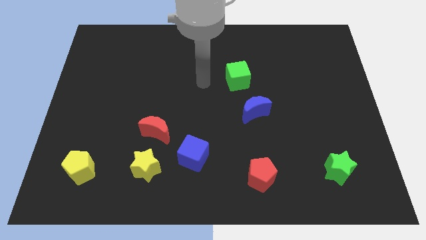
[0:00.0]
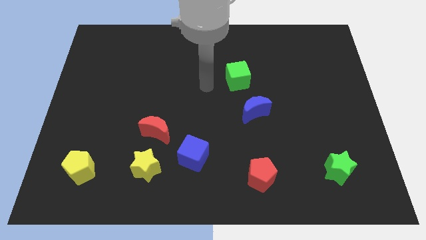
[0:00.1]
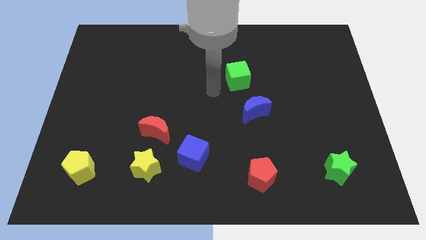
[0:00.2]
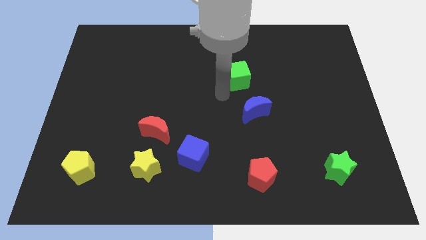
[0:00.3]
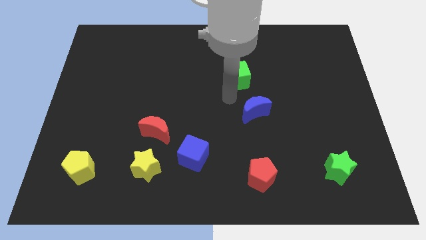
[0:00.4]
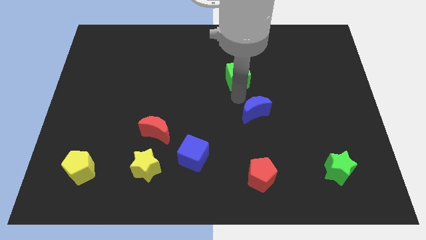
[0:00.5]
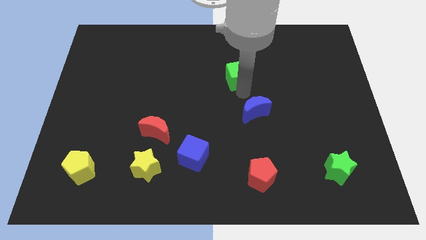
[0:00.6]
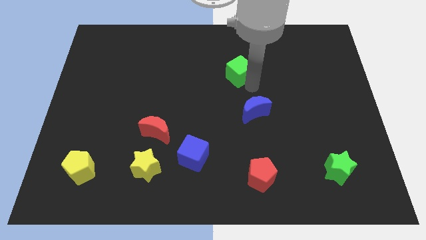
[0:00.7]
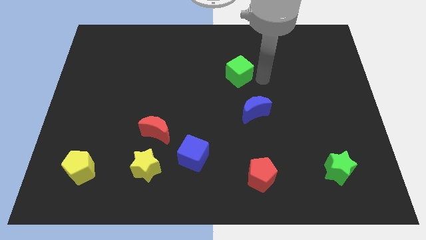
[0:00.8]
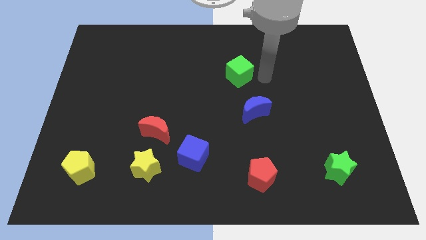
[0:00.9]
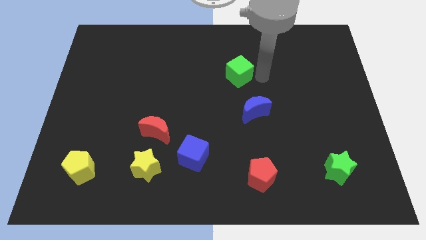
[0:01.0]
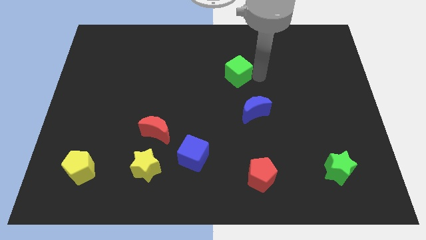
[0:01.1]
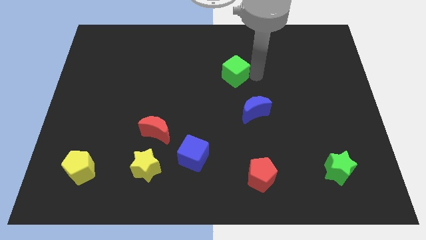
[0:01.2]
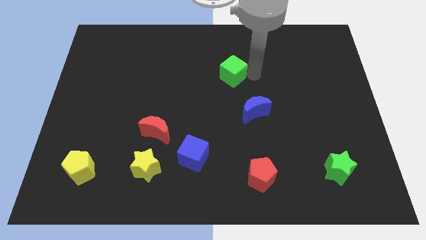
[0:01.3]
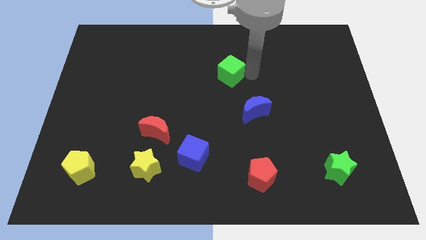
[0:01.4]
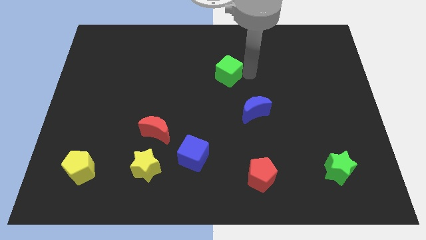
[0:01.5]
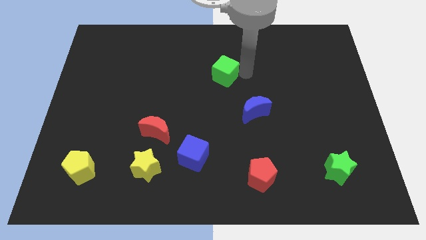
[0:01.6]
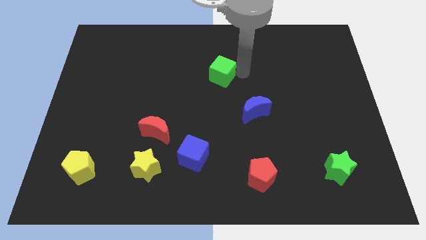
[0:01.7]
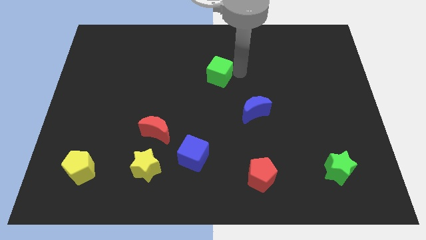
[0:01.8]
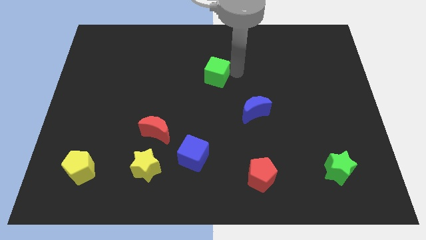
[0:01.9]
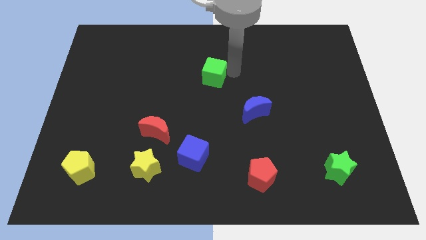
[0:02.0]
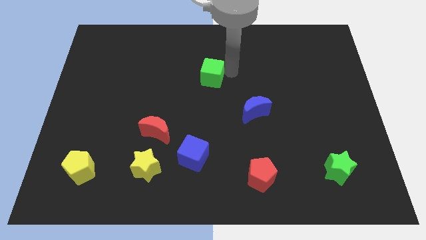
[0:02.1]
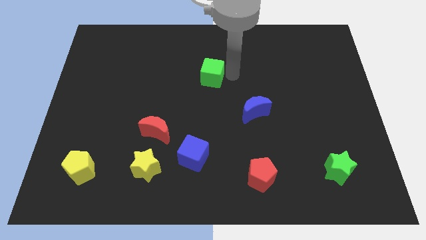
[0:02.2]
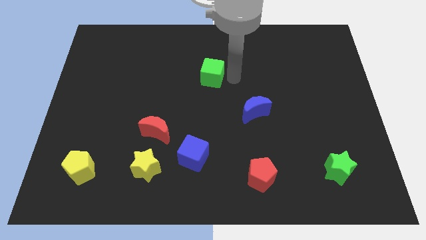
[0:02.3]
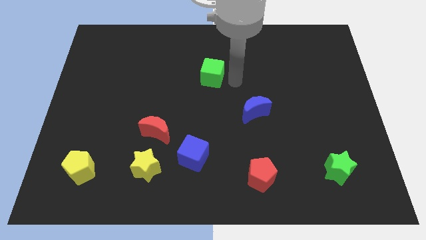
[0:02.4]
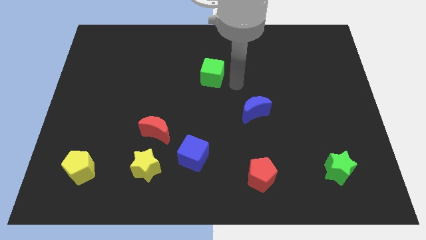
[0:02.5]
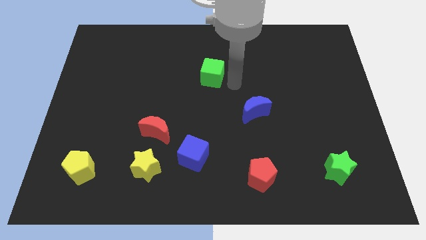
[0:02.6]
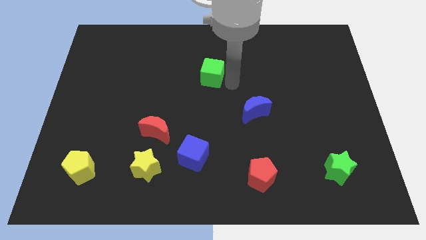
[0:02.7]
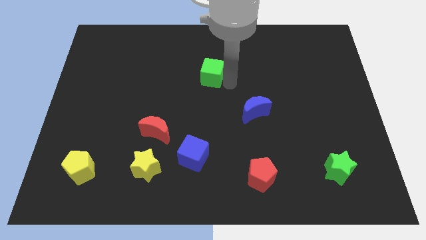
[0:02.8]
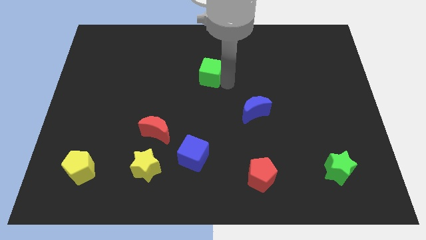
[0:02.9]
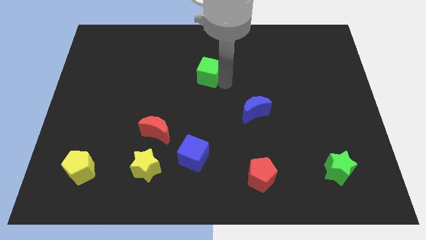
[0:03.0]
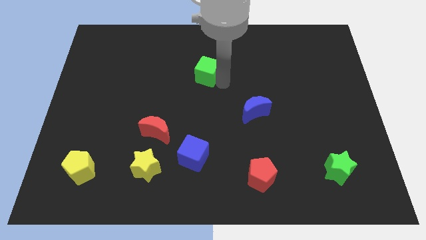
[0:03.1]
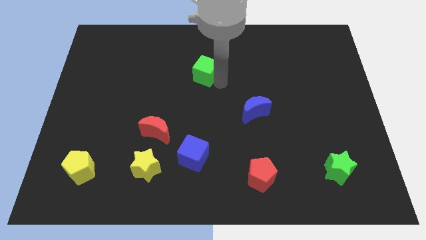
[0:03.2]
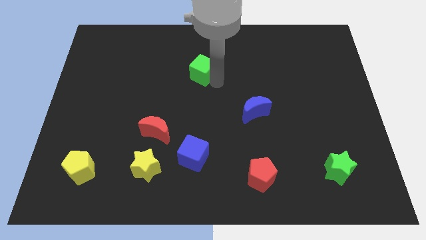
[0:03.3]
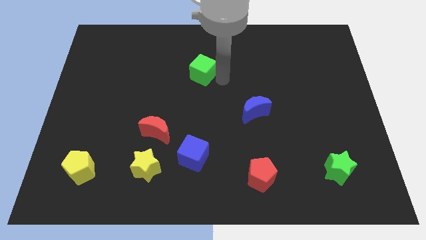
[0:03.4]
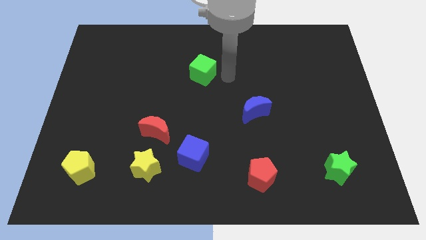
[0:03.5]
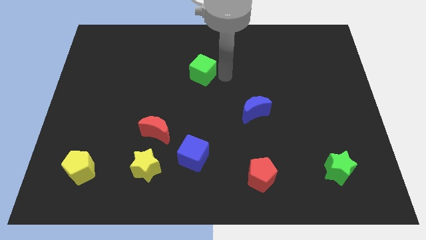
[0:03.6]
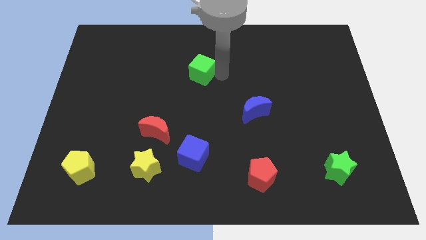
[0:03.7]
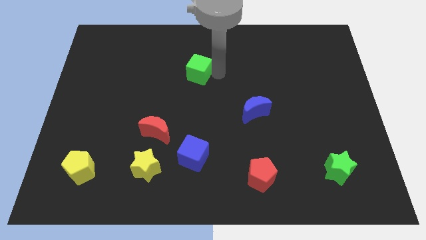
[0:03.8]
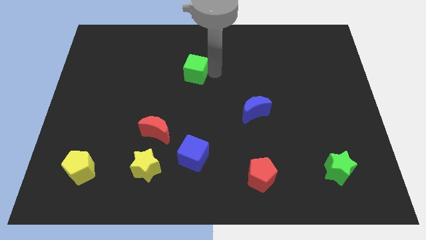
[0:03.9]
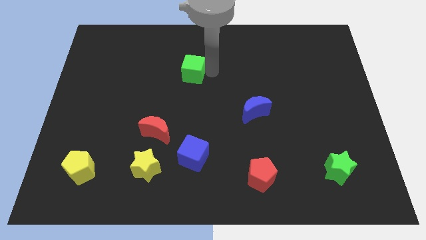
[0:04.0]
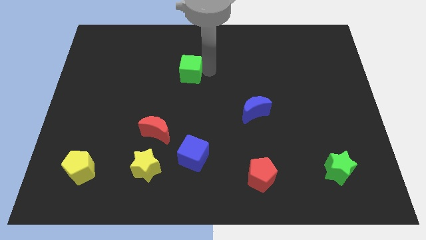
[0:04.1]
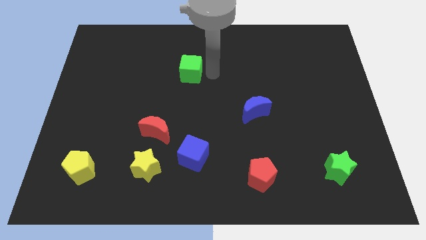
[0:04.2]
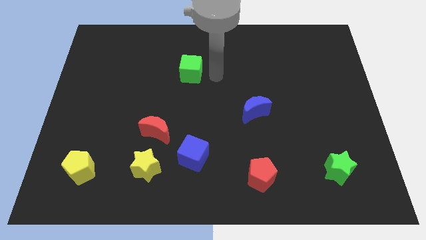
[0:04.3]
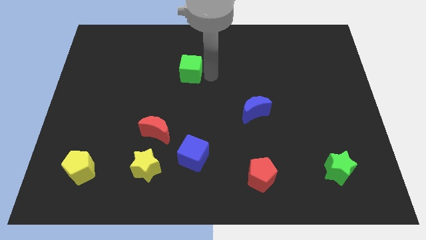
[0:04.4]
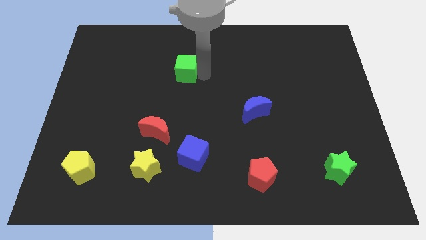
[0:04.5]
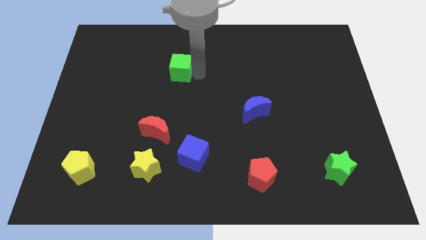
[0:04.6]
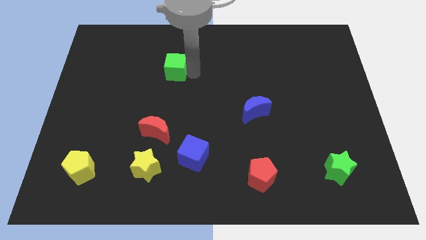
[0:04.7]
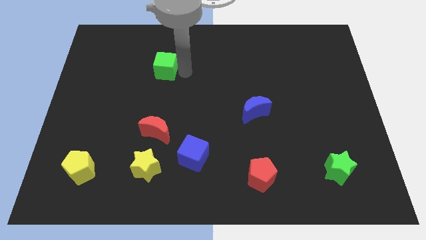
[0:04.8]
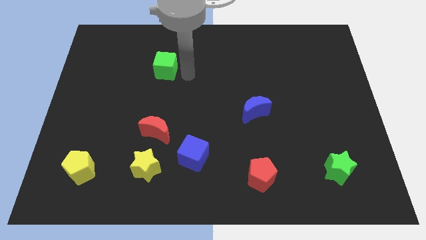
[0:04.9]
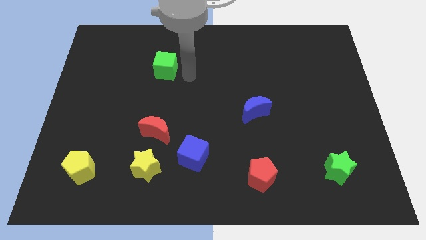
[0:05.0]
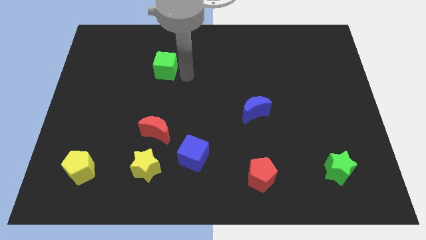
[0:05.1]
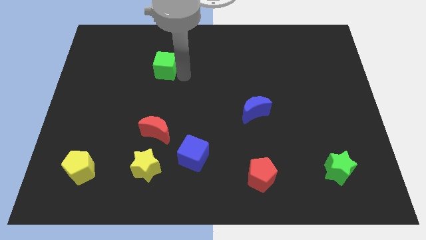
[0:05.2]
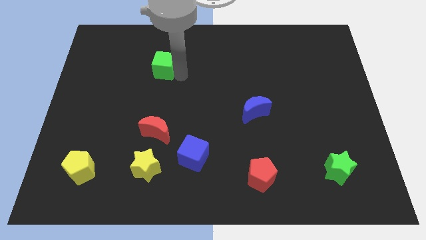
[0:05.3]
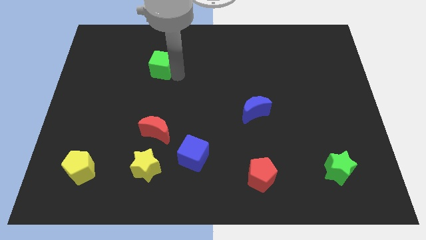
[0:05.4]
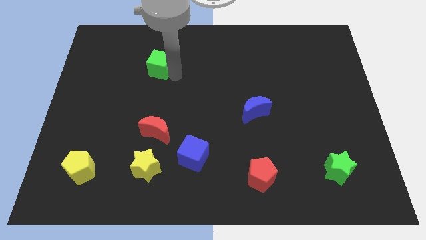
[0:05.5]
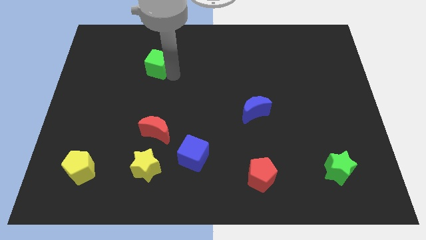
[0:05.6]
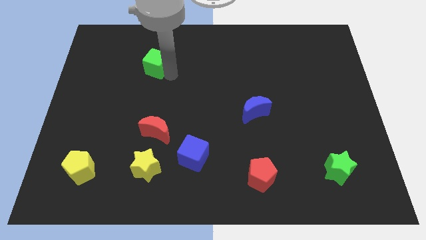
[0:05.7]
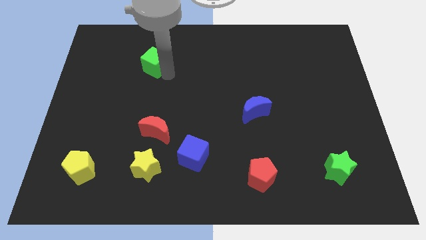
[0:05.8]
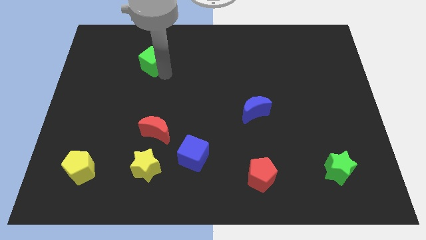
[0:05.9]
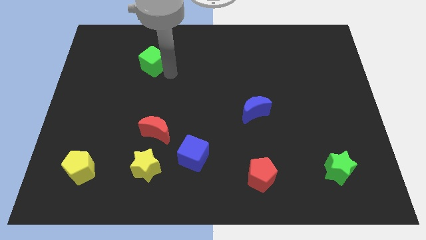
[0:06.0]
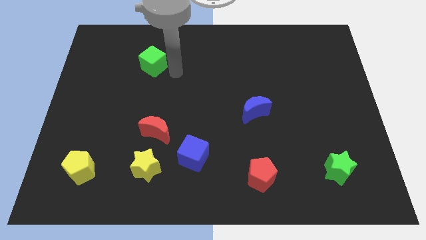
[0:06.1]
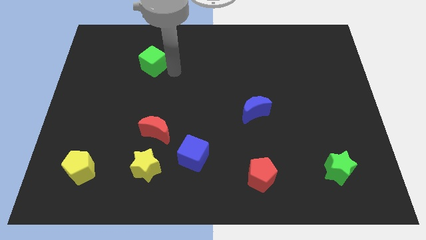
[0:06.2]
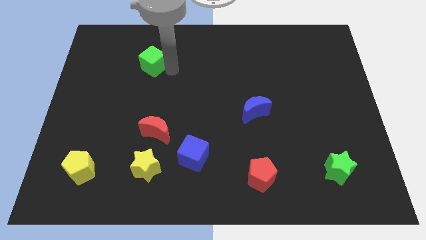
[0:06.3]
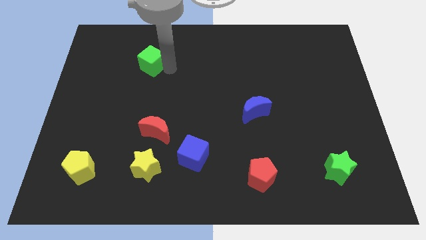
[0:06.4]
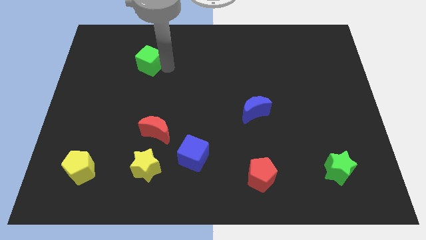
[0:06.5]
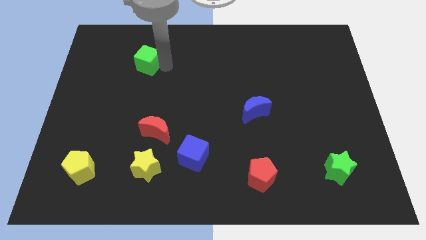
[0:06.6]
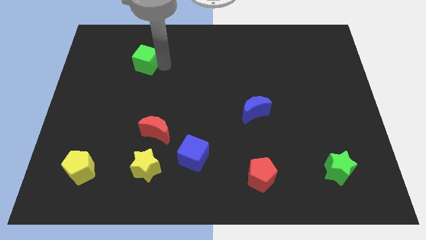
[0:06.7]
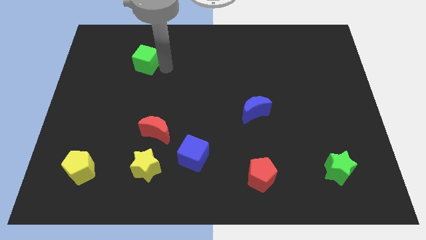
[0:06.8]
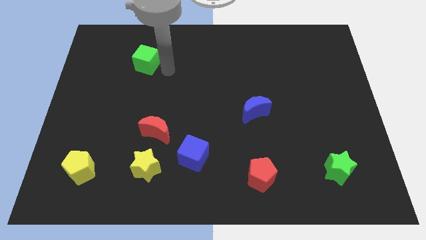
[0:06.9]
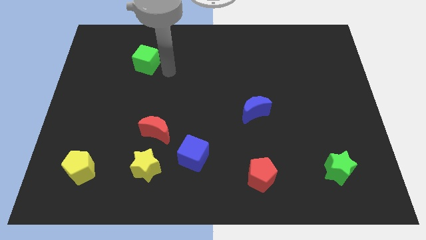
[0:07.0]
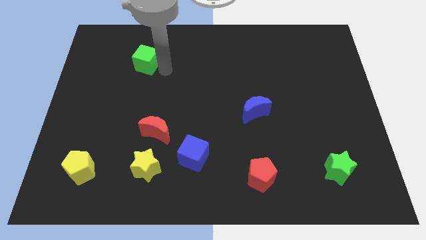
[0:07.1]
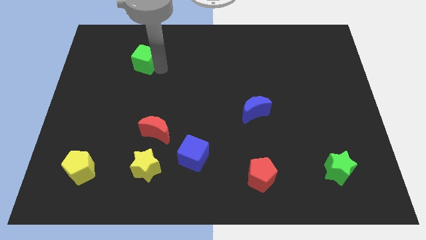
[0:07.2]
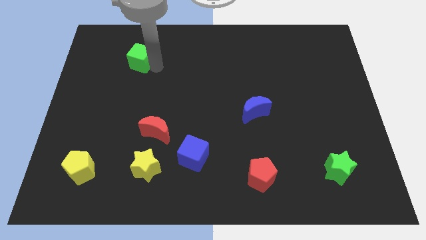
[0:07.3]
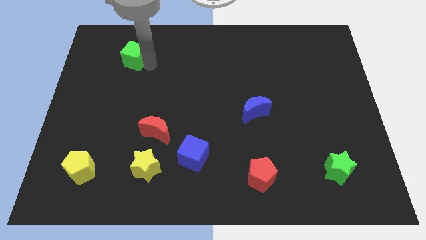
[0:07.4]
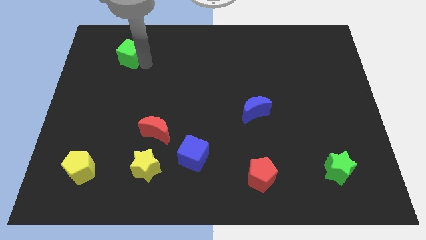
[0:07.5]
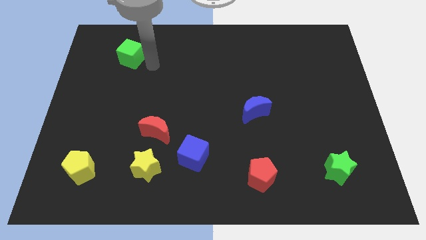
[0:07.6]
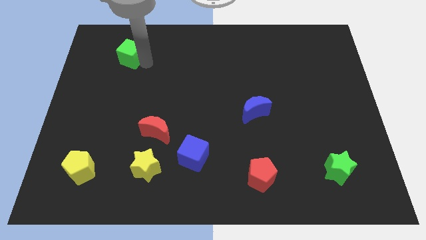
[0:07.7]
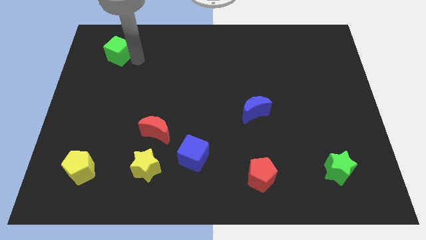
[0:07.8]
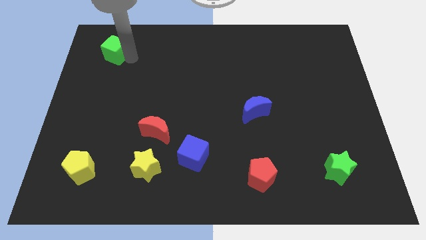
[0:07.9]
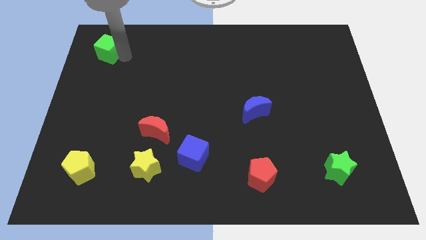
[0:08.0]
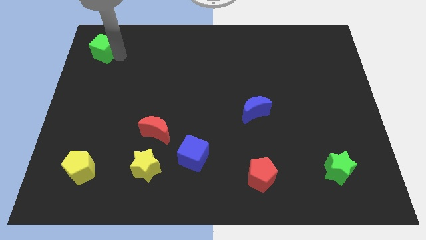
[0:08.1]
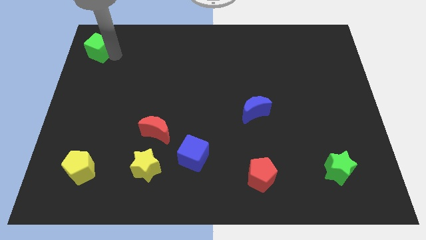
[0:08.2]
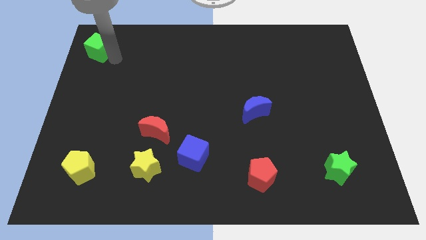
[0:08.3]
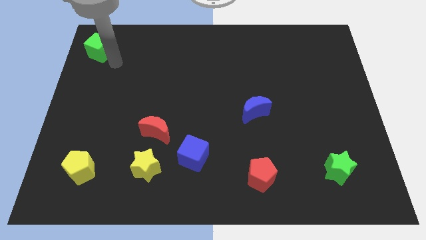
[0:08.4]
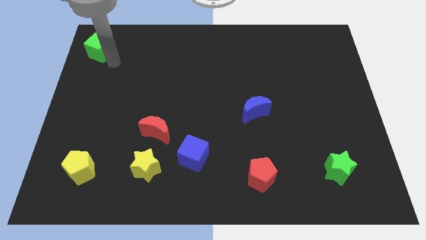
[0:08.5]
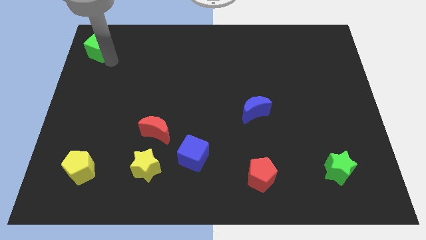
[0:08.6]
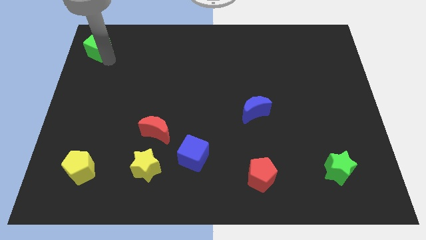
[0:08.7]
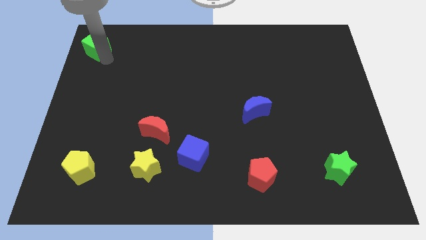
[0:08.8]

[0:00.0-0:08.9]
slide the green cube to the top left corner
